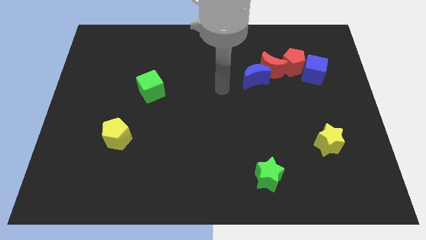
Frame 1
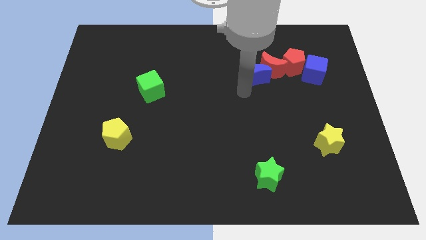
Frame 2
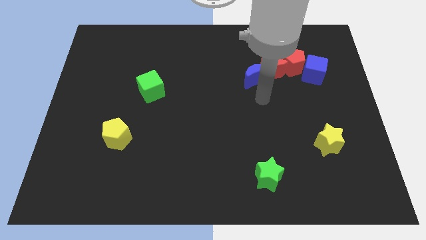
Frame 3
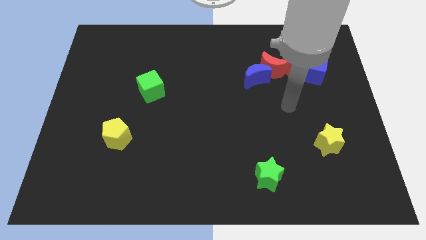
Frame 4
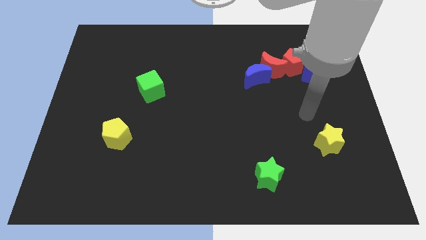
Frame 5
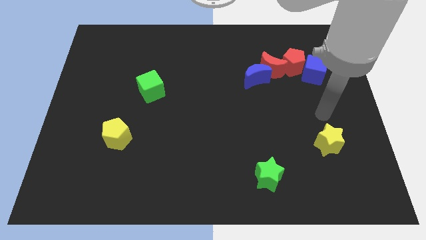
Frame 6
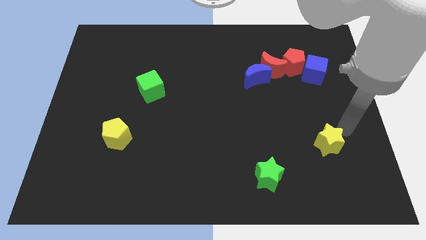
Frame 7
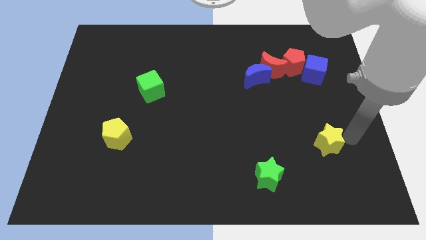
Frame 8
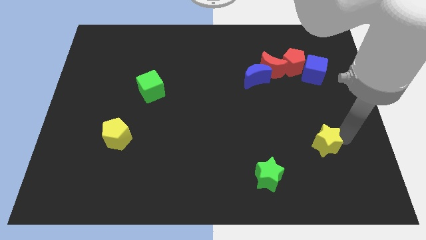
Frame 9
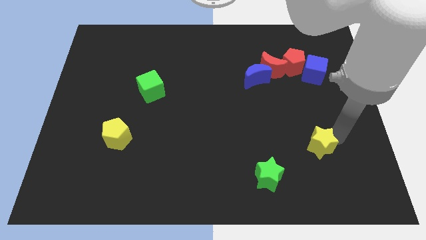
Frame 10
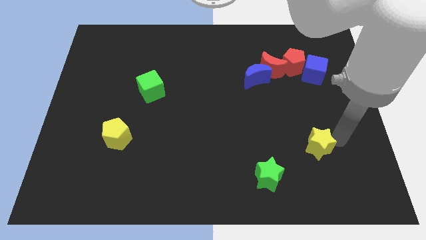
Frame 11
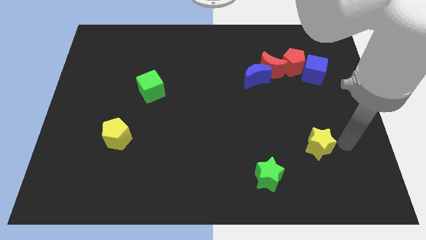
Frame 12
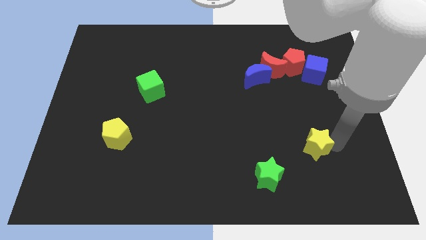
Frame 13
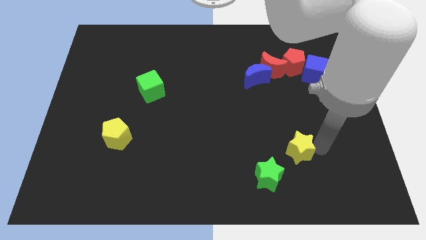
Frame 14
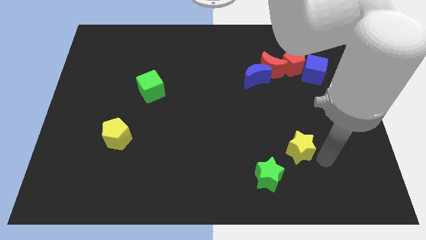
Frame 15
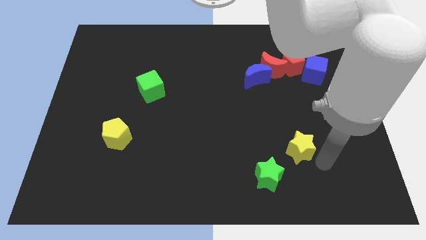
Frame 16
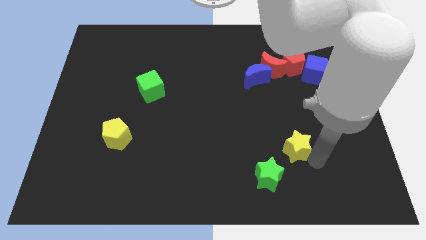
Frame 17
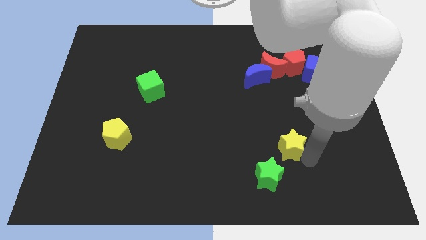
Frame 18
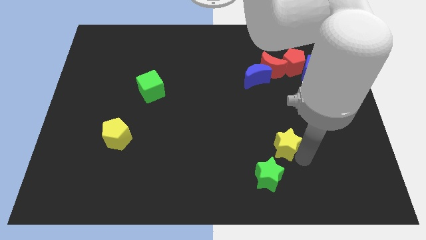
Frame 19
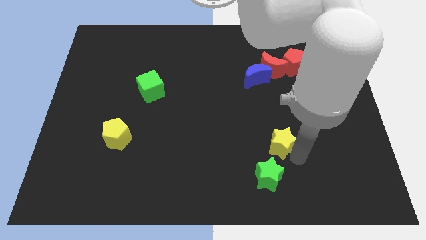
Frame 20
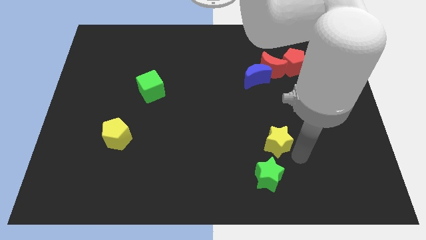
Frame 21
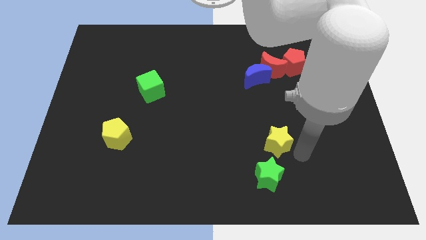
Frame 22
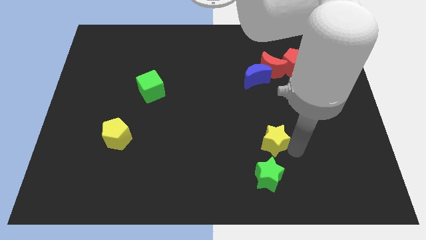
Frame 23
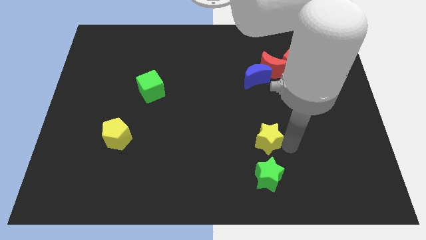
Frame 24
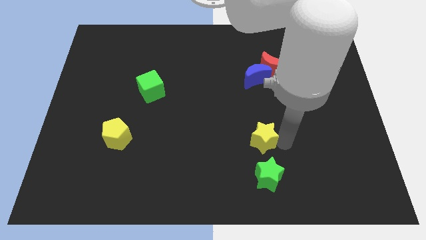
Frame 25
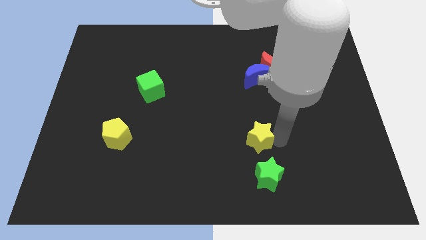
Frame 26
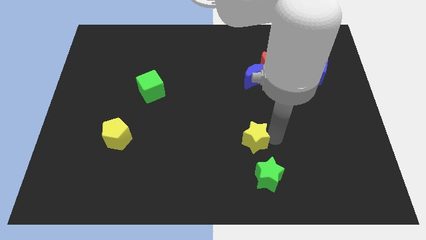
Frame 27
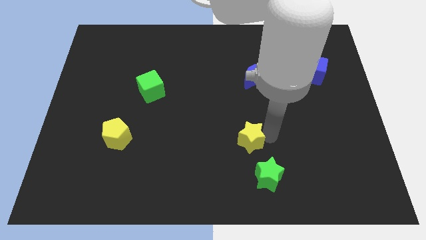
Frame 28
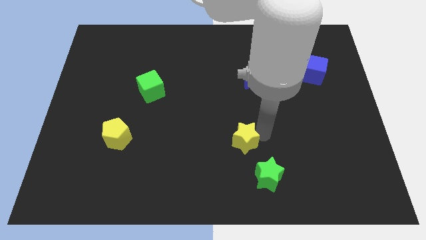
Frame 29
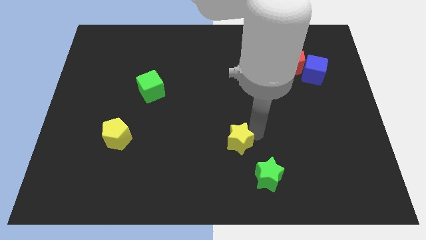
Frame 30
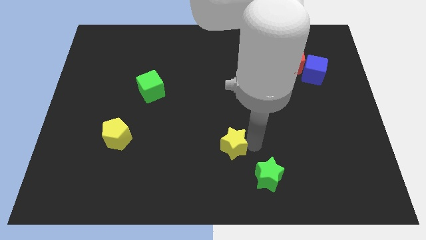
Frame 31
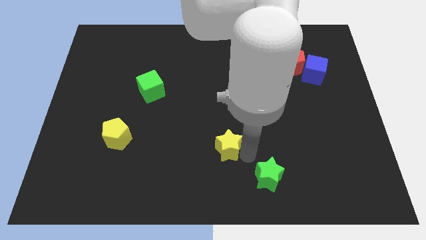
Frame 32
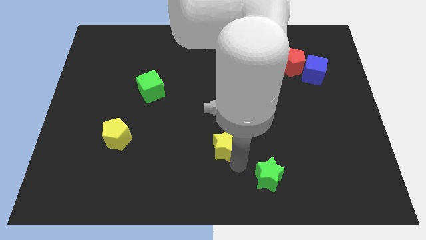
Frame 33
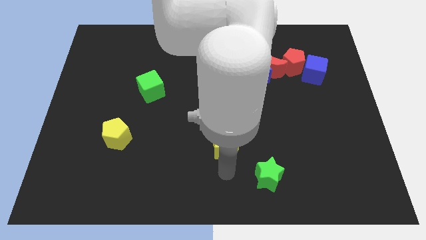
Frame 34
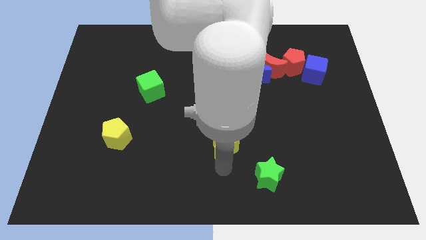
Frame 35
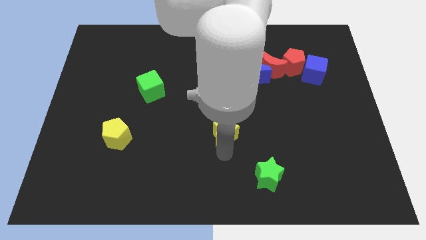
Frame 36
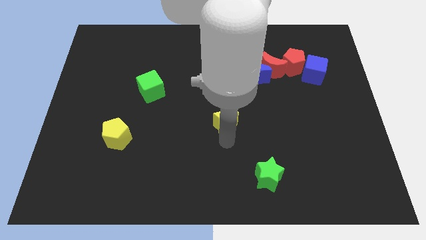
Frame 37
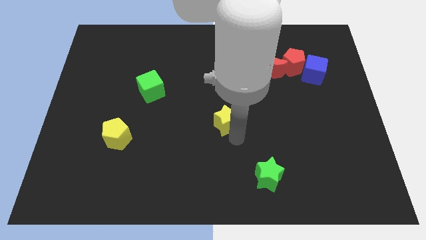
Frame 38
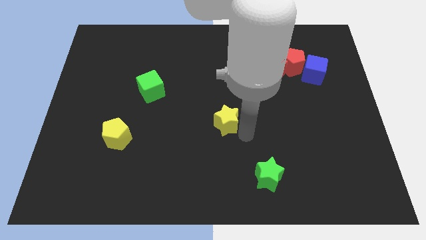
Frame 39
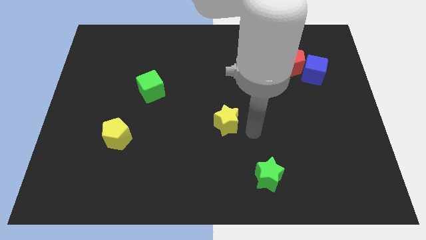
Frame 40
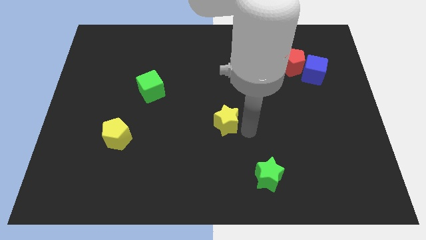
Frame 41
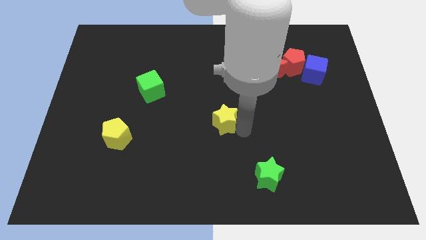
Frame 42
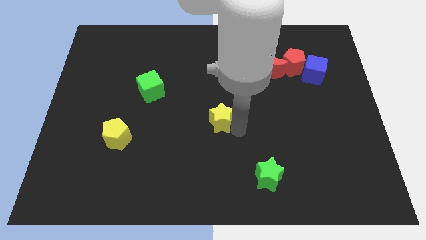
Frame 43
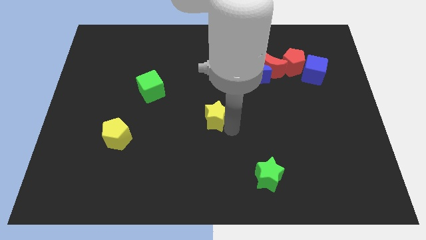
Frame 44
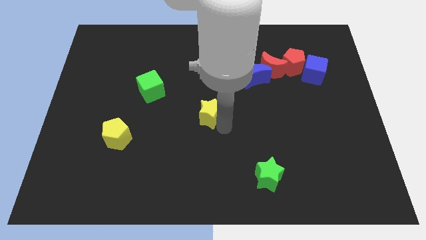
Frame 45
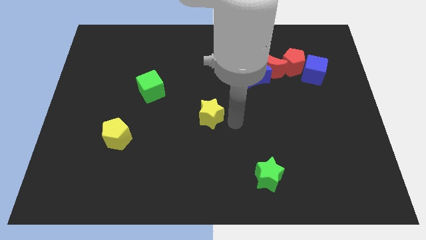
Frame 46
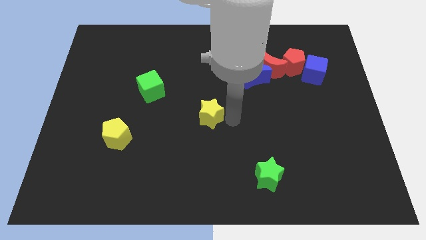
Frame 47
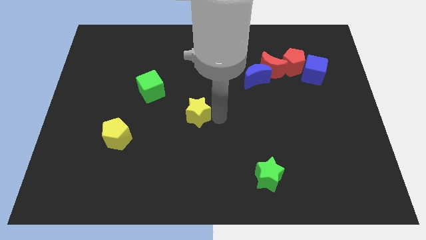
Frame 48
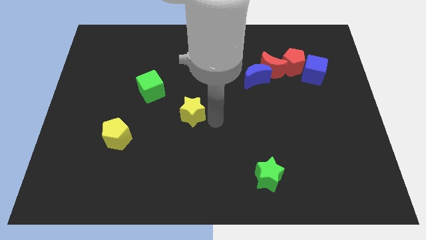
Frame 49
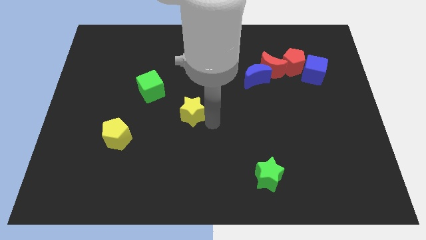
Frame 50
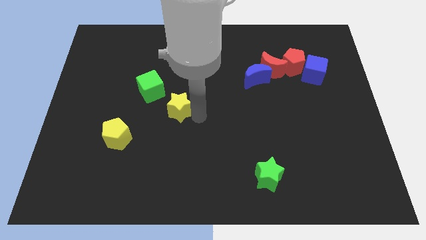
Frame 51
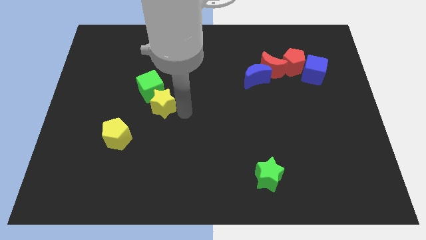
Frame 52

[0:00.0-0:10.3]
push the yellow star next to the green cube

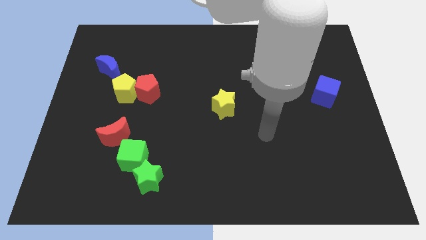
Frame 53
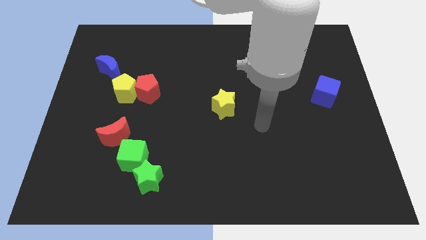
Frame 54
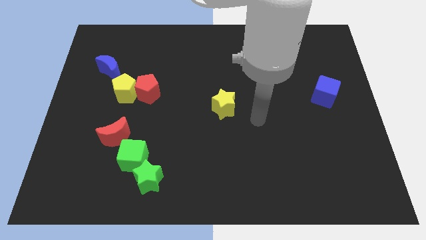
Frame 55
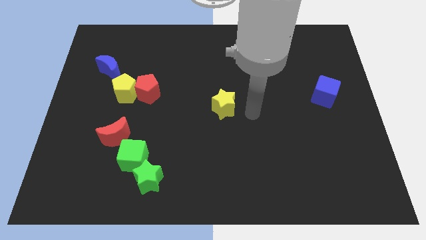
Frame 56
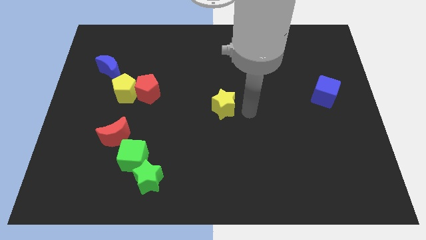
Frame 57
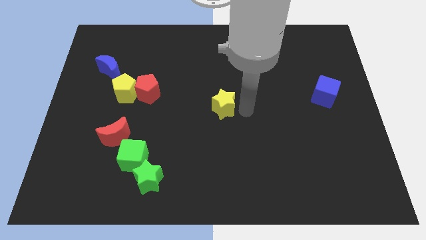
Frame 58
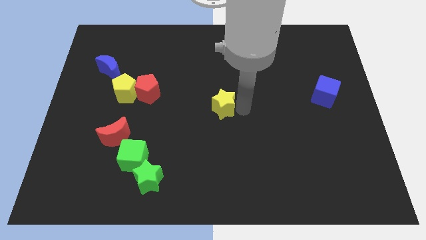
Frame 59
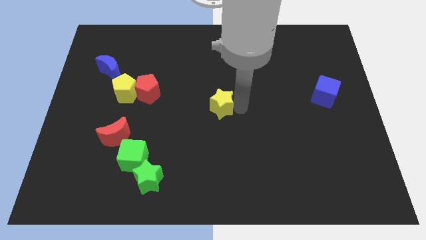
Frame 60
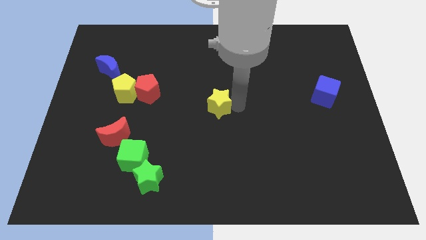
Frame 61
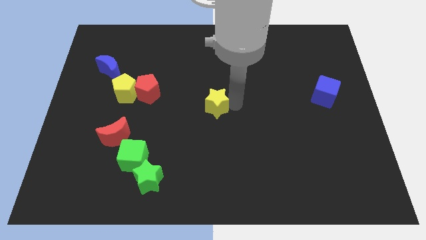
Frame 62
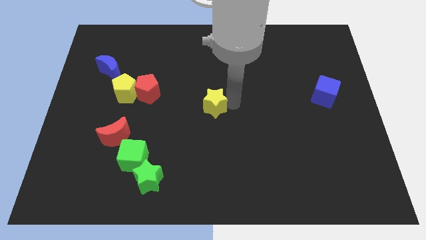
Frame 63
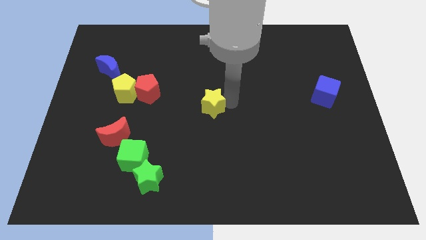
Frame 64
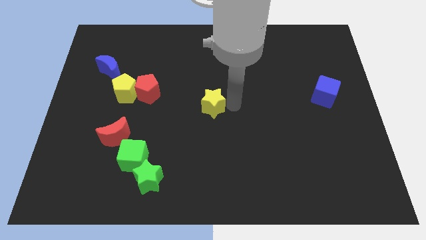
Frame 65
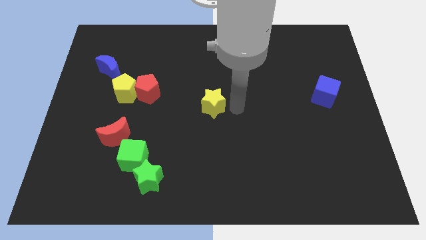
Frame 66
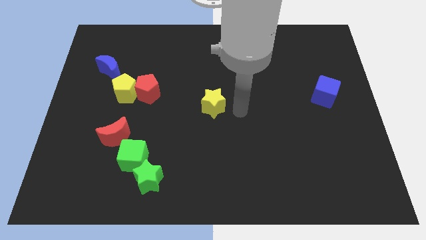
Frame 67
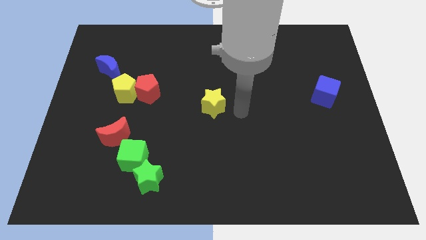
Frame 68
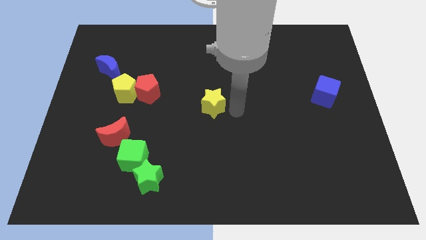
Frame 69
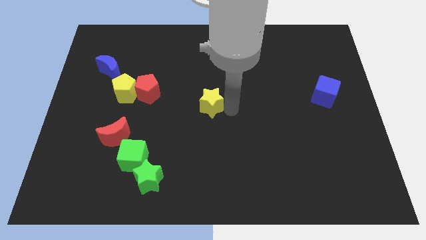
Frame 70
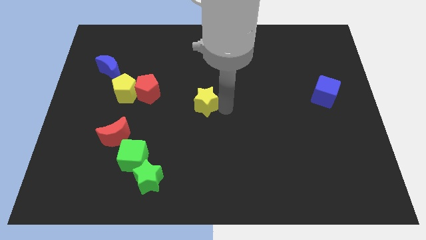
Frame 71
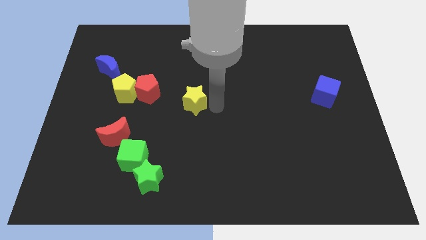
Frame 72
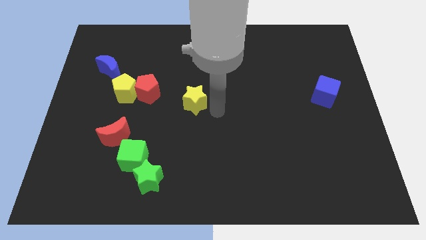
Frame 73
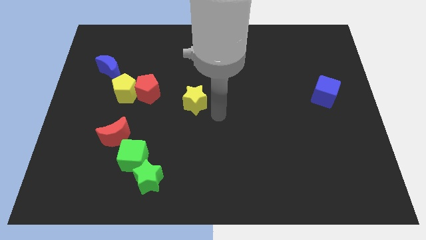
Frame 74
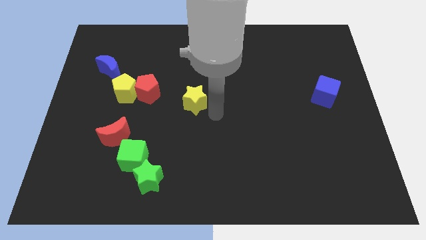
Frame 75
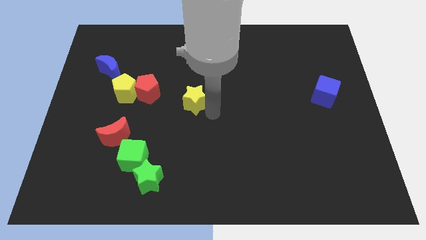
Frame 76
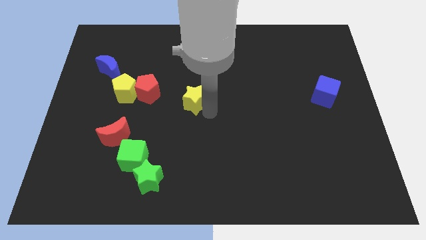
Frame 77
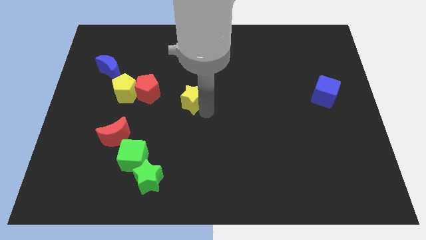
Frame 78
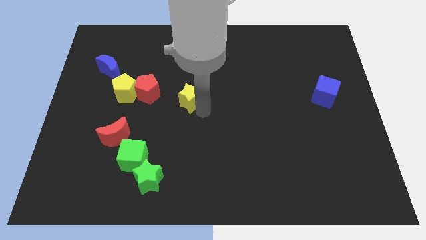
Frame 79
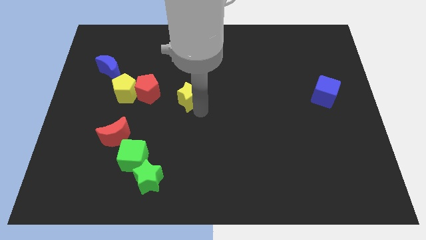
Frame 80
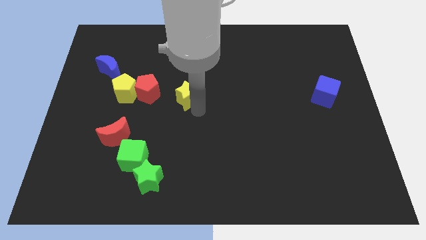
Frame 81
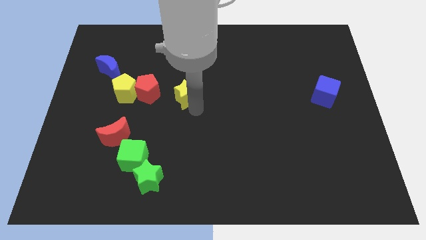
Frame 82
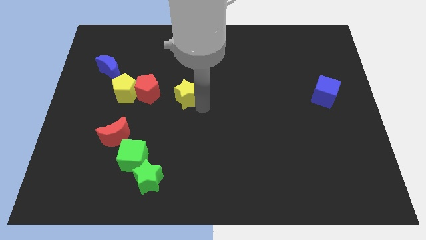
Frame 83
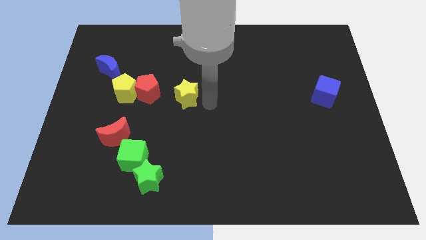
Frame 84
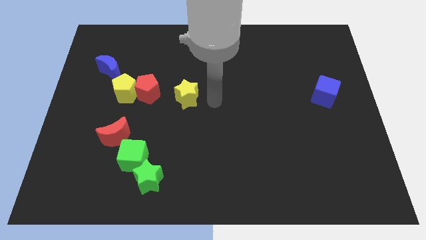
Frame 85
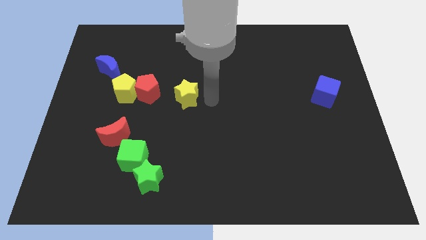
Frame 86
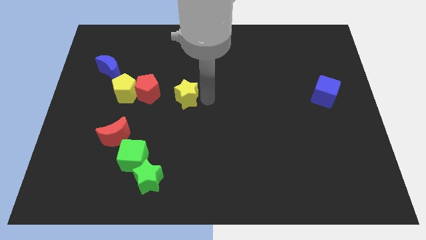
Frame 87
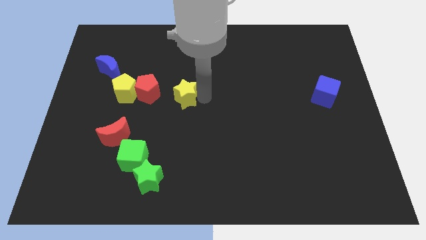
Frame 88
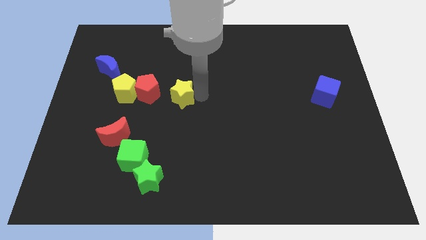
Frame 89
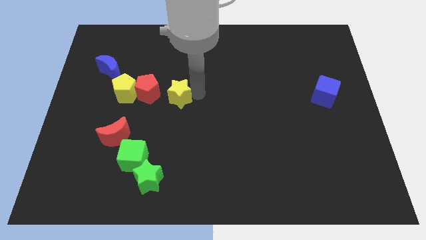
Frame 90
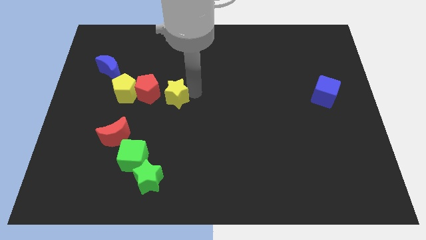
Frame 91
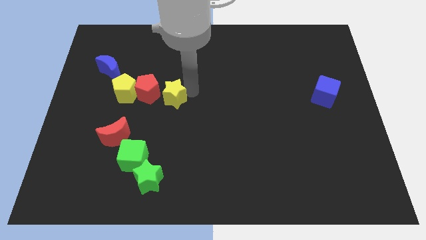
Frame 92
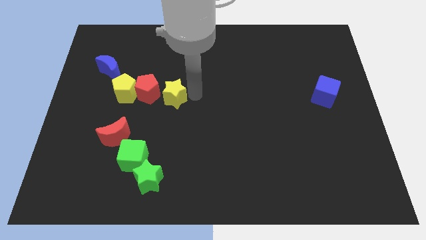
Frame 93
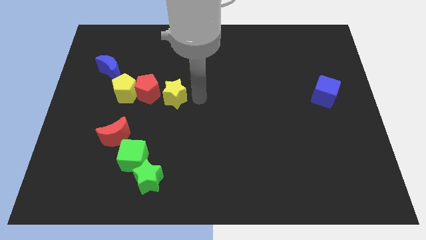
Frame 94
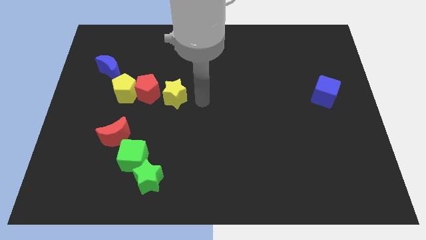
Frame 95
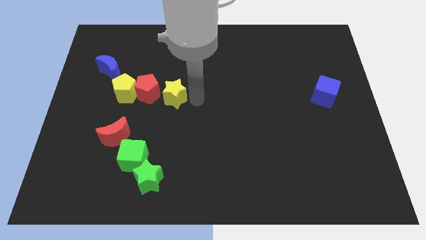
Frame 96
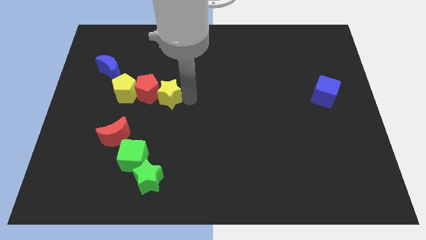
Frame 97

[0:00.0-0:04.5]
slide the yellow star to the red pentagon
